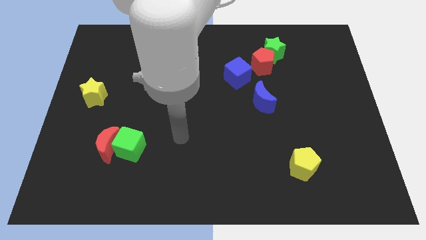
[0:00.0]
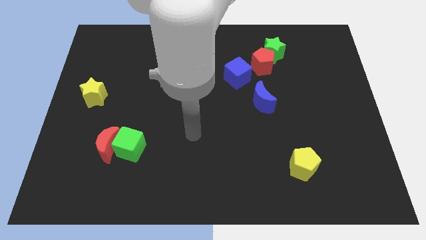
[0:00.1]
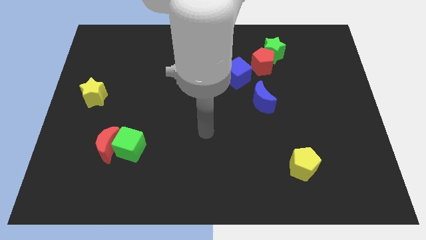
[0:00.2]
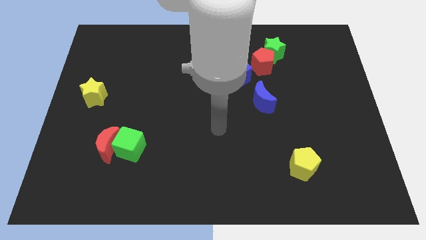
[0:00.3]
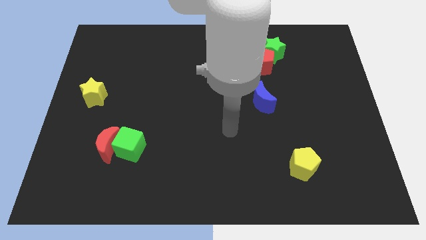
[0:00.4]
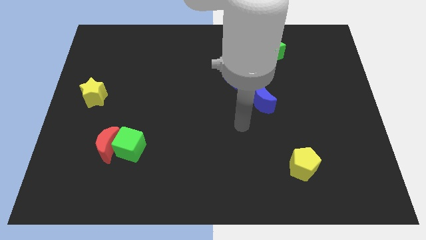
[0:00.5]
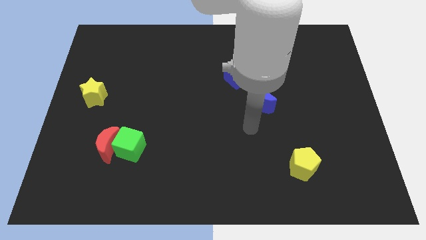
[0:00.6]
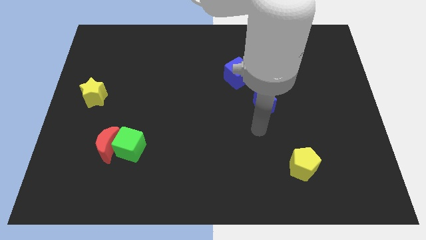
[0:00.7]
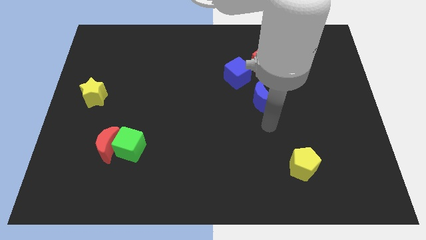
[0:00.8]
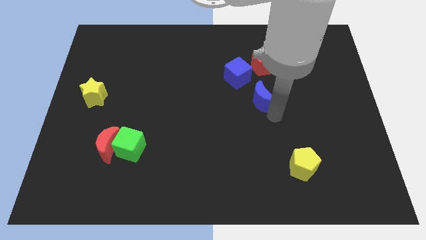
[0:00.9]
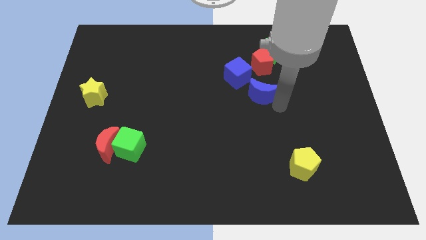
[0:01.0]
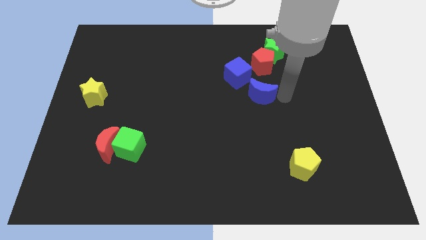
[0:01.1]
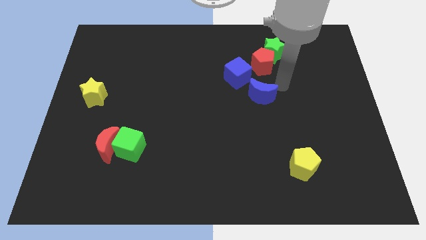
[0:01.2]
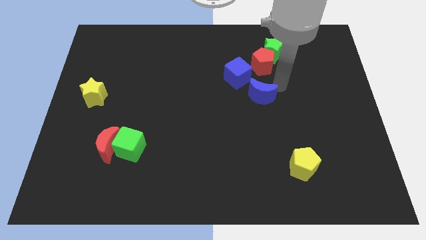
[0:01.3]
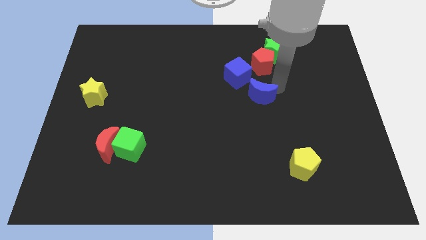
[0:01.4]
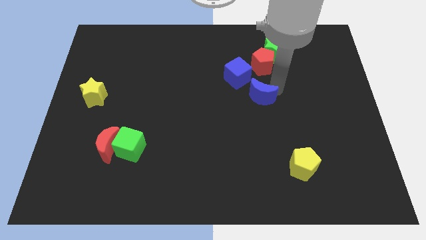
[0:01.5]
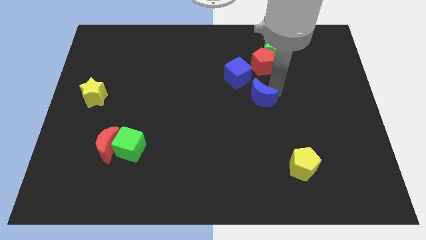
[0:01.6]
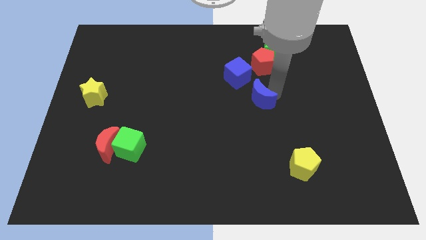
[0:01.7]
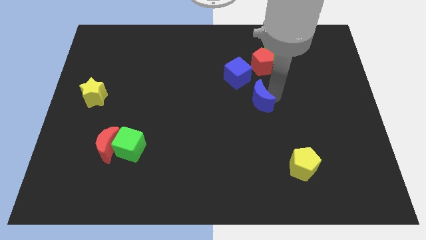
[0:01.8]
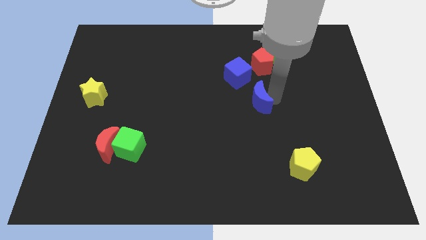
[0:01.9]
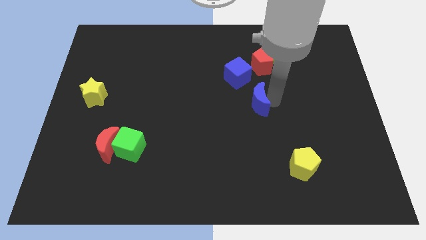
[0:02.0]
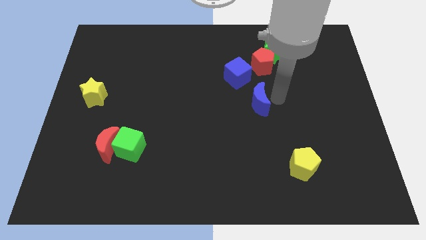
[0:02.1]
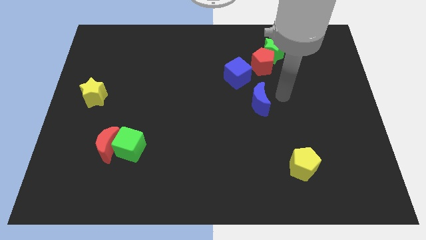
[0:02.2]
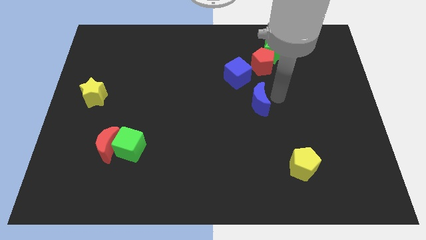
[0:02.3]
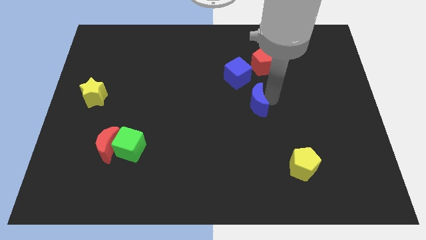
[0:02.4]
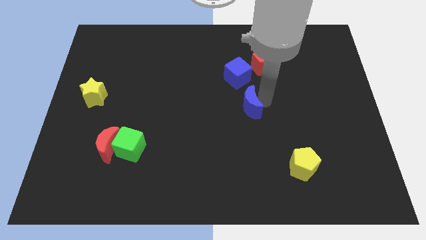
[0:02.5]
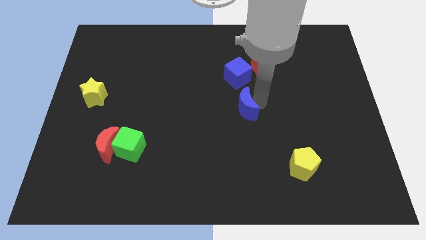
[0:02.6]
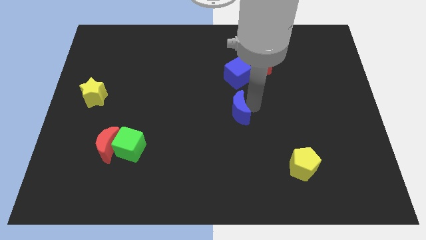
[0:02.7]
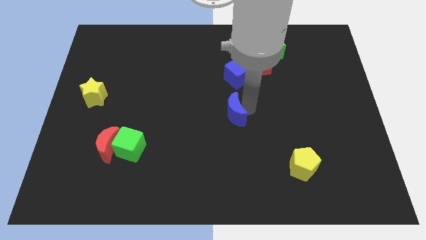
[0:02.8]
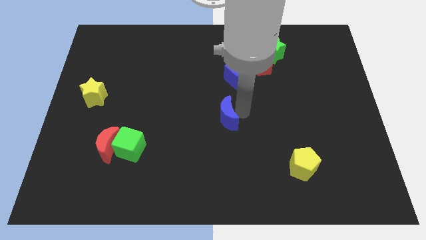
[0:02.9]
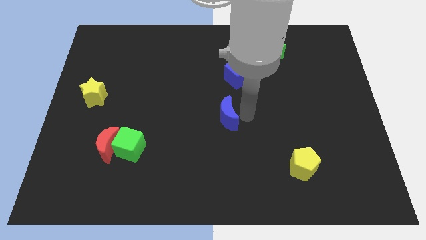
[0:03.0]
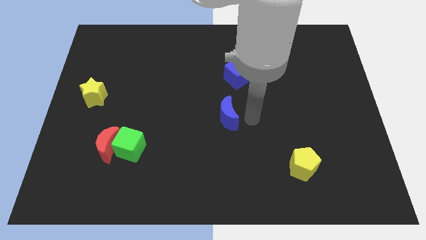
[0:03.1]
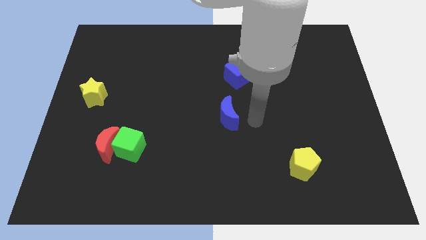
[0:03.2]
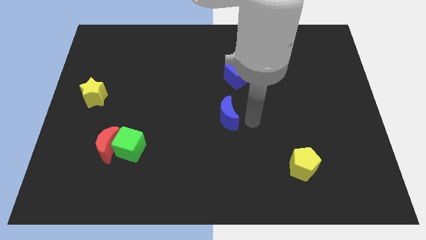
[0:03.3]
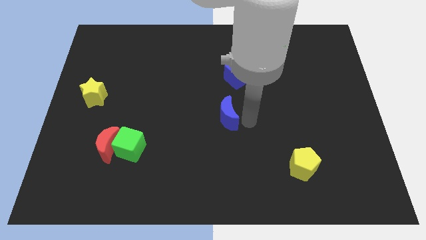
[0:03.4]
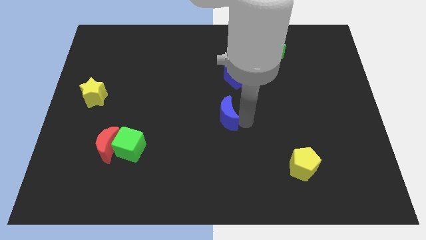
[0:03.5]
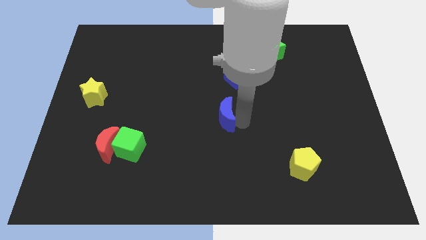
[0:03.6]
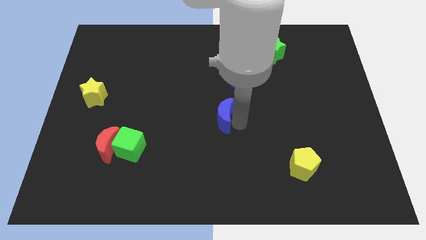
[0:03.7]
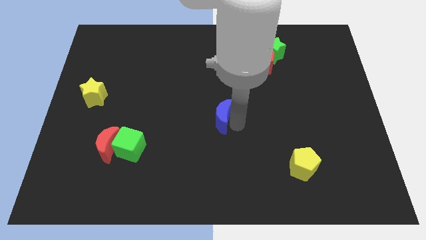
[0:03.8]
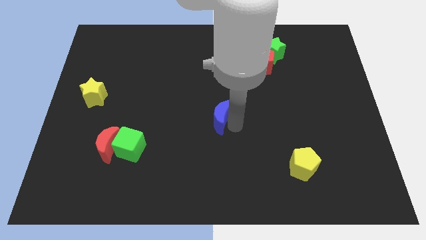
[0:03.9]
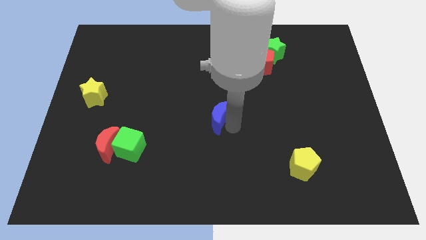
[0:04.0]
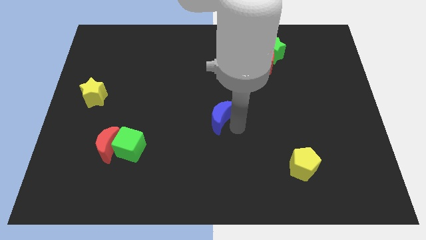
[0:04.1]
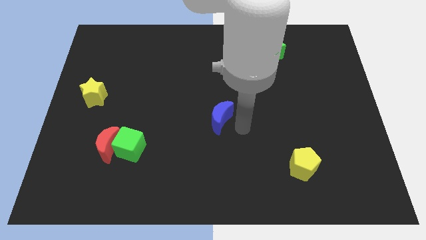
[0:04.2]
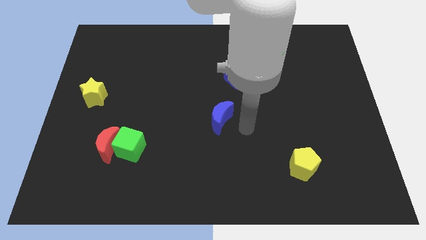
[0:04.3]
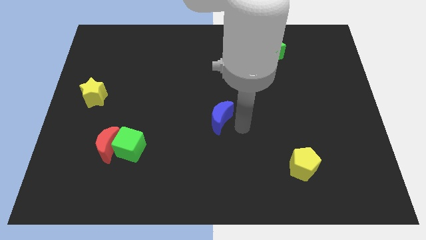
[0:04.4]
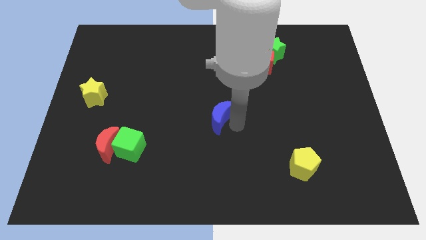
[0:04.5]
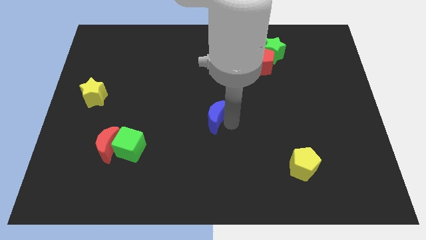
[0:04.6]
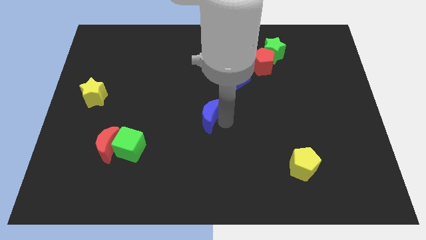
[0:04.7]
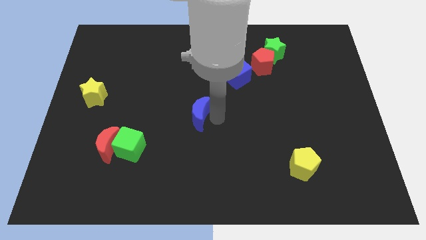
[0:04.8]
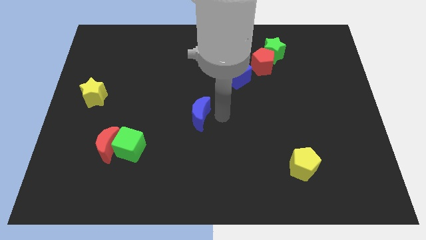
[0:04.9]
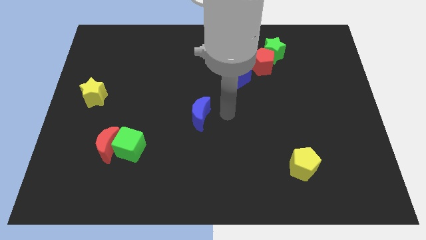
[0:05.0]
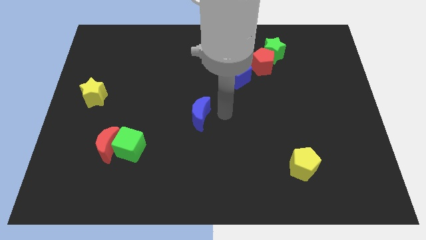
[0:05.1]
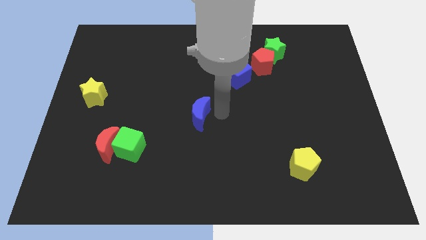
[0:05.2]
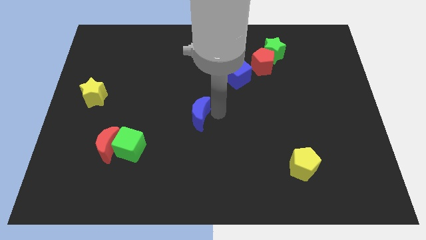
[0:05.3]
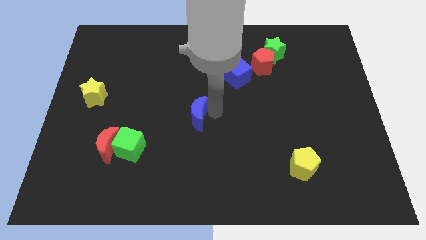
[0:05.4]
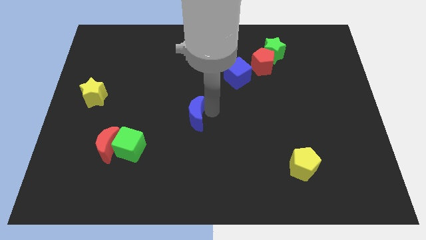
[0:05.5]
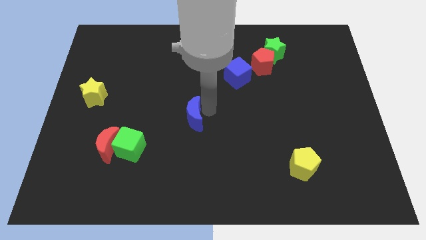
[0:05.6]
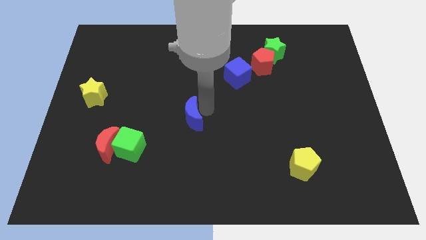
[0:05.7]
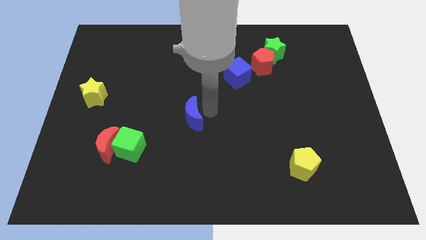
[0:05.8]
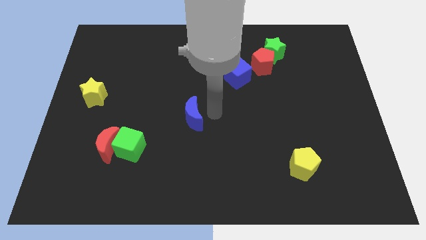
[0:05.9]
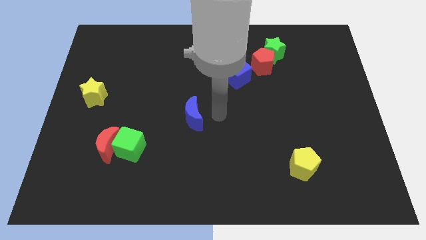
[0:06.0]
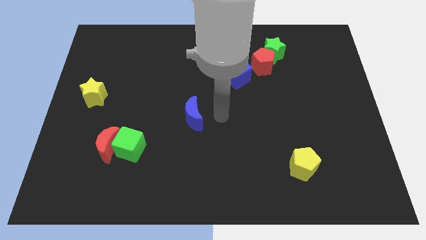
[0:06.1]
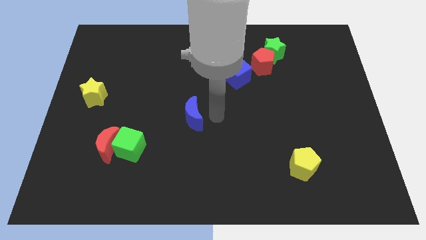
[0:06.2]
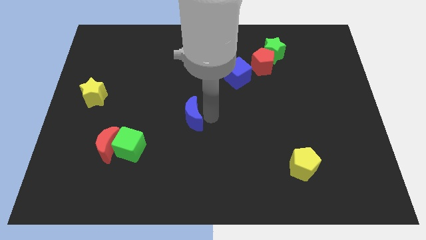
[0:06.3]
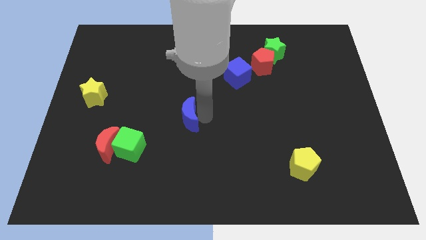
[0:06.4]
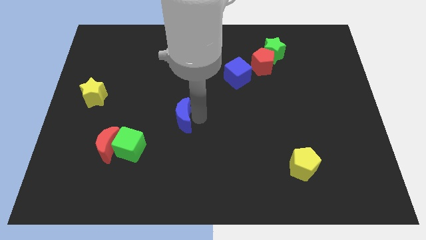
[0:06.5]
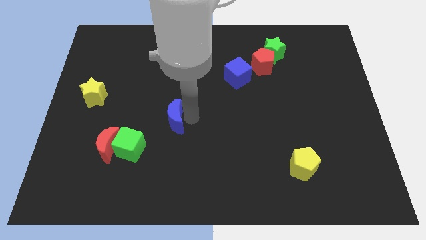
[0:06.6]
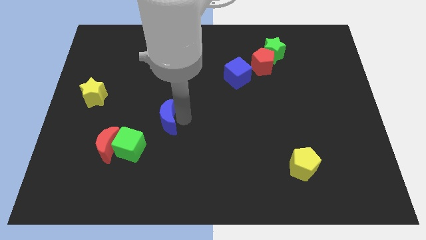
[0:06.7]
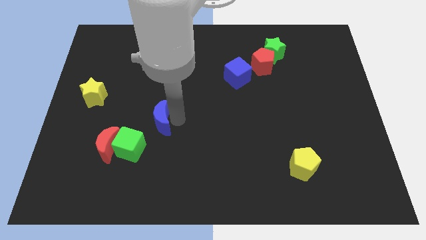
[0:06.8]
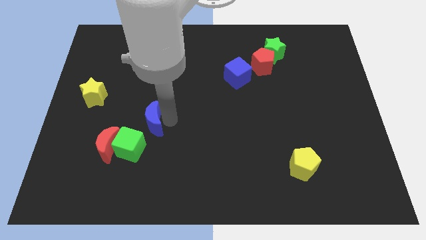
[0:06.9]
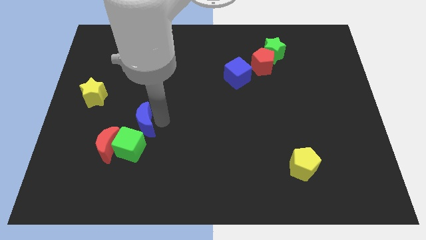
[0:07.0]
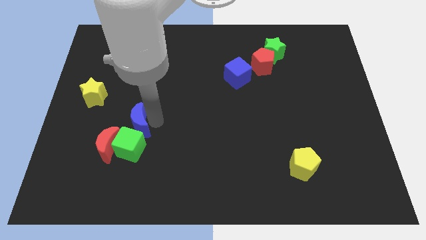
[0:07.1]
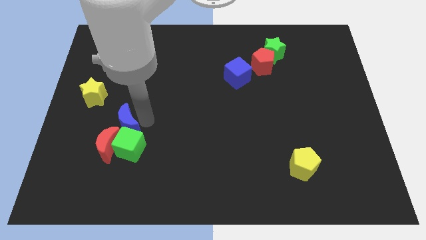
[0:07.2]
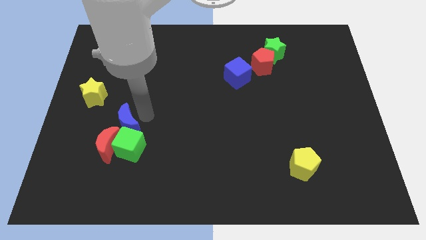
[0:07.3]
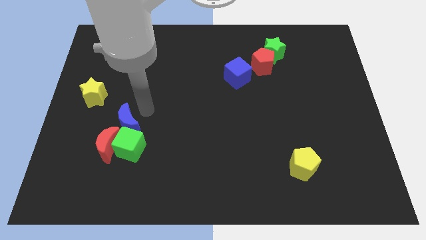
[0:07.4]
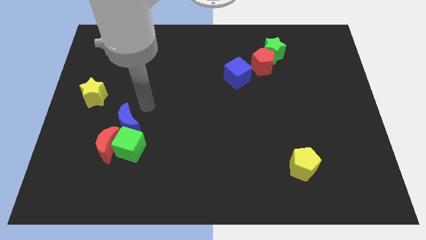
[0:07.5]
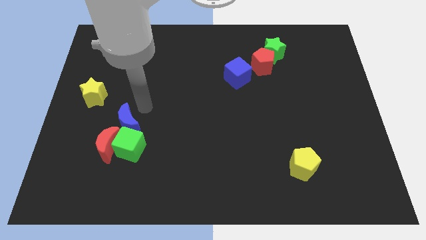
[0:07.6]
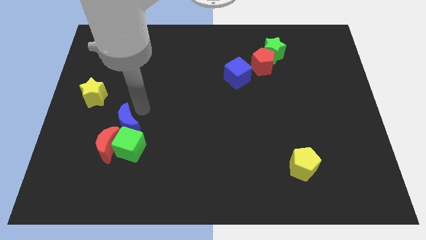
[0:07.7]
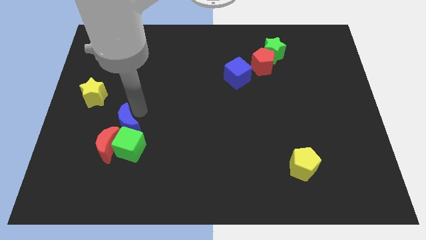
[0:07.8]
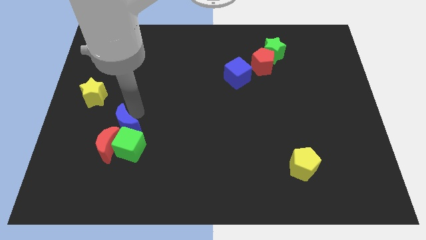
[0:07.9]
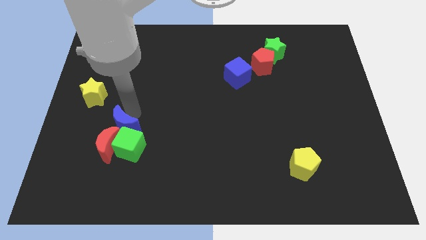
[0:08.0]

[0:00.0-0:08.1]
slide the blue moon to the red moon
